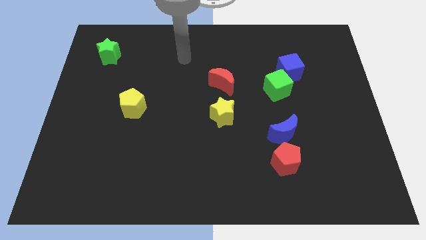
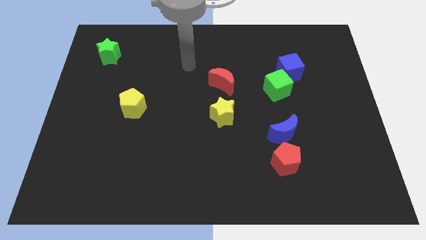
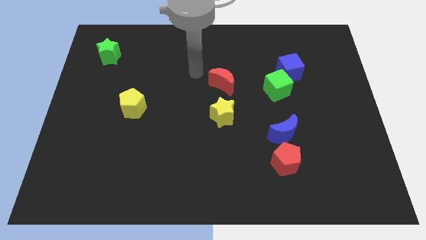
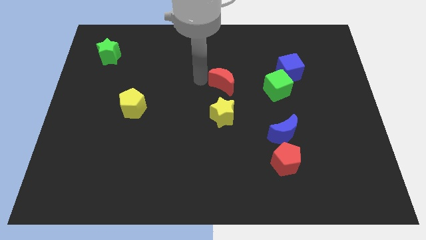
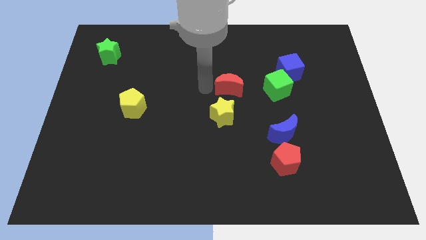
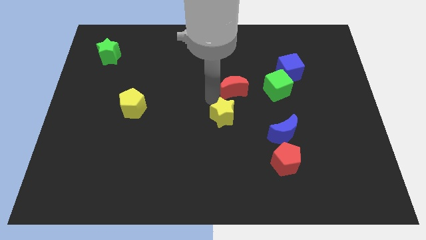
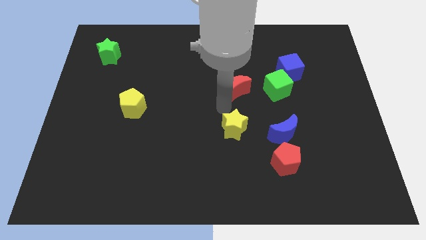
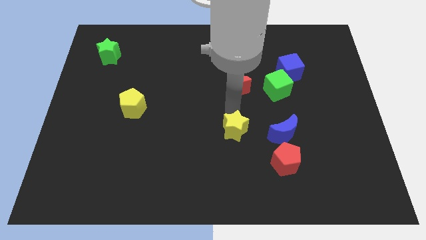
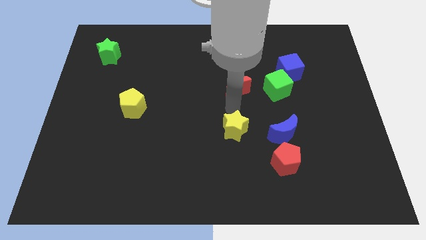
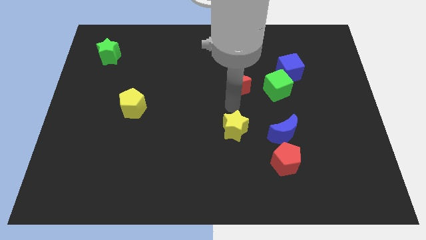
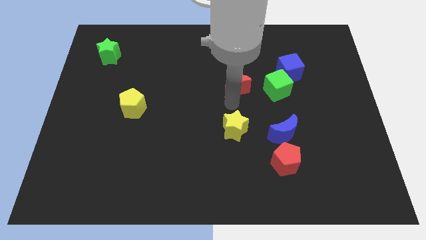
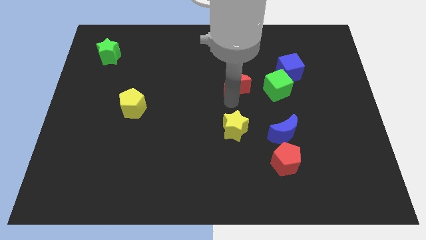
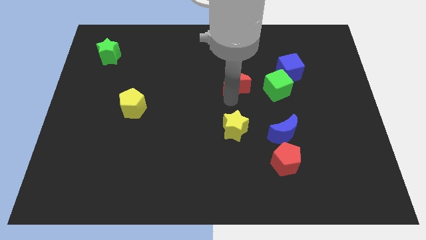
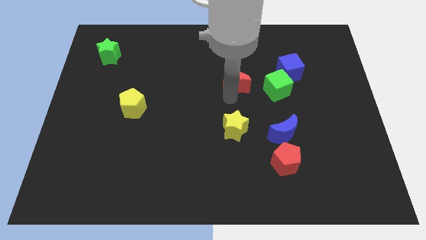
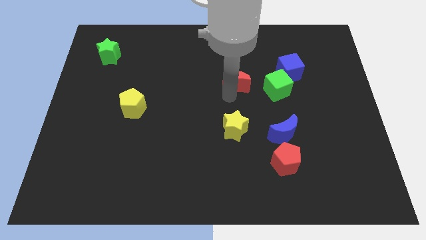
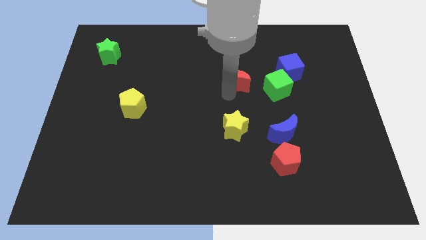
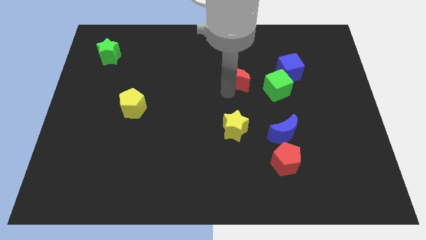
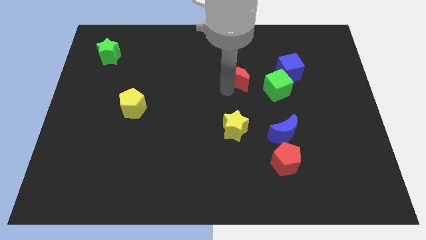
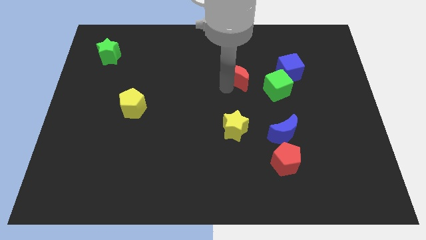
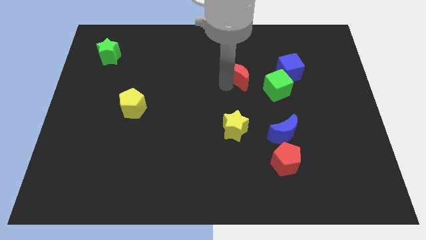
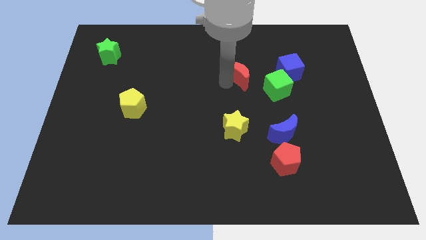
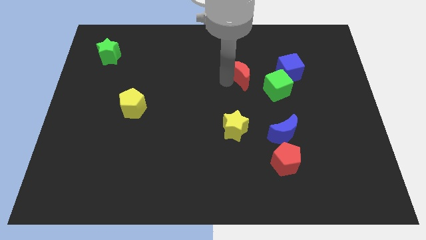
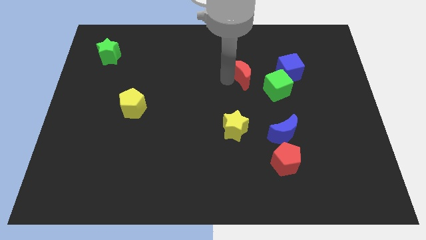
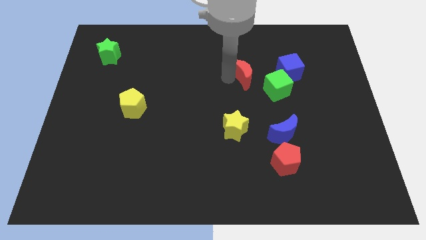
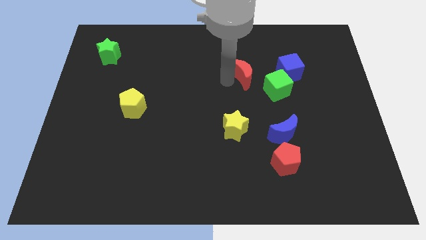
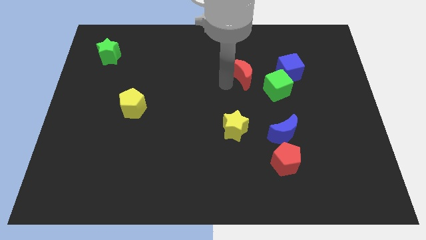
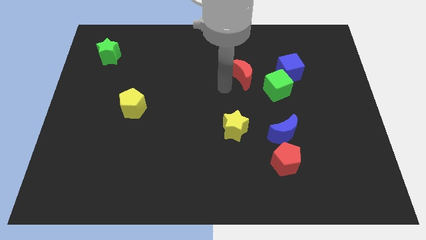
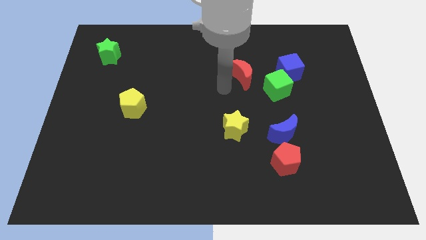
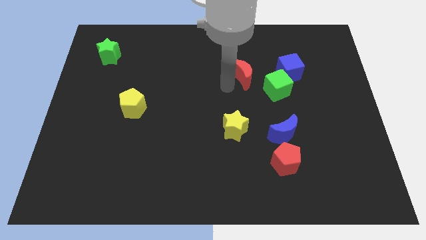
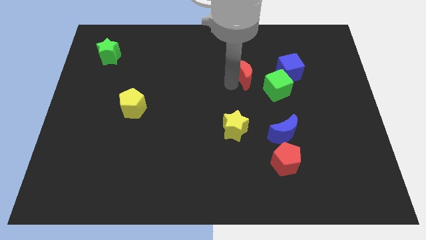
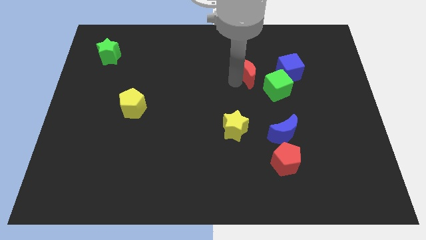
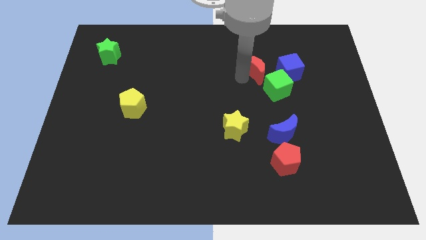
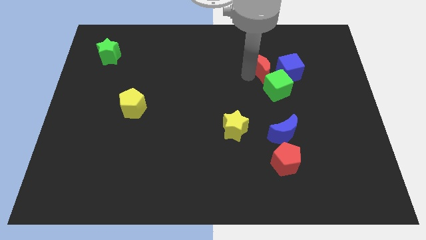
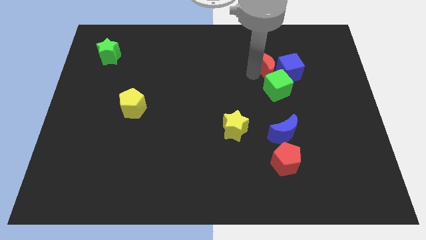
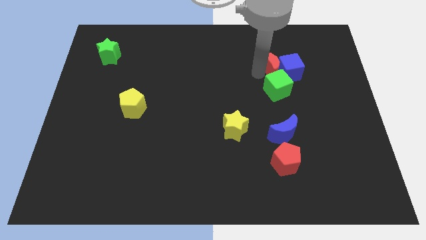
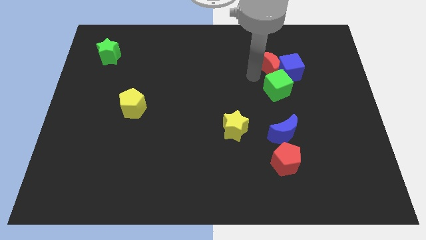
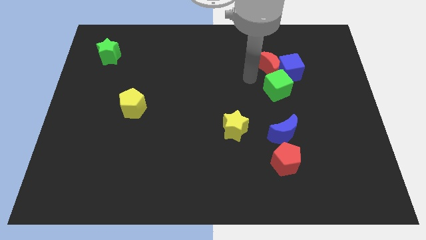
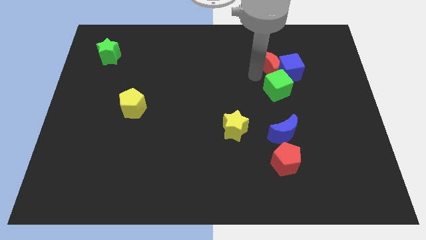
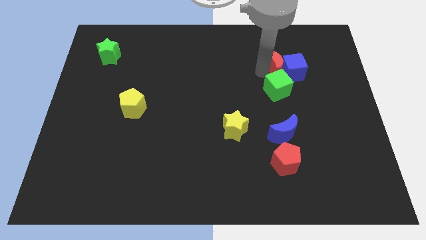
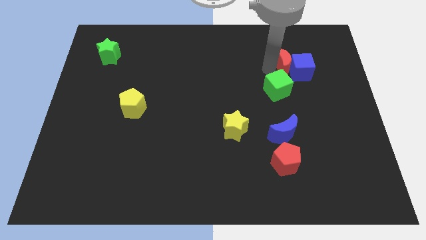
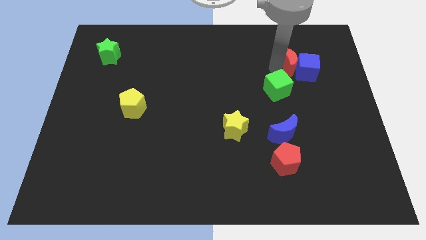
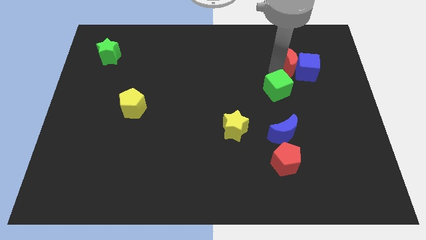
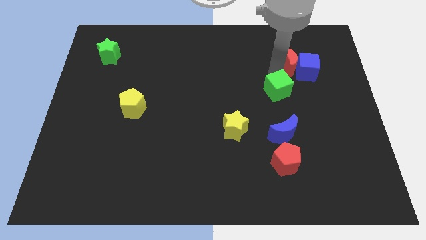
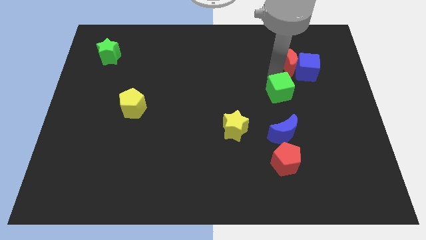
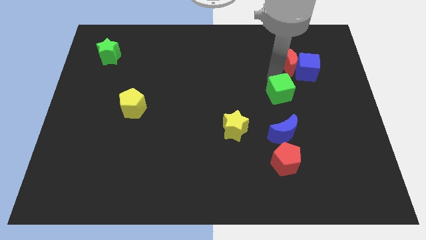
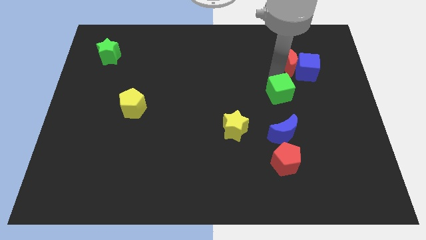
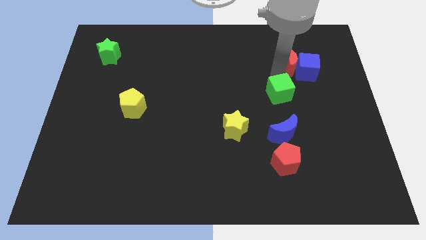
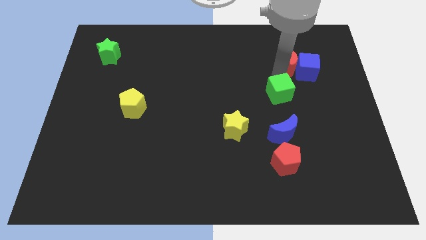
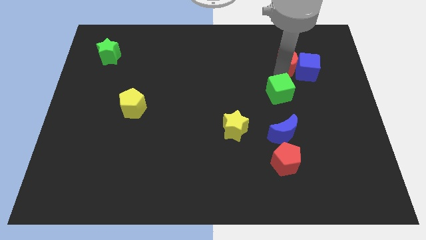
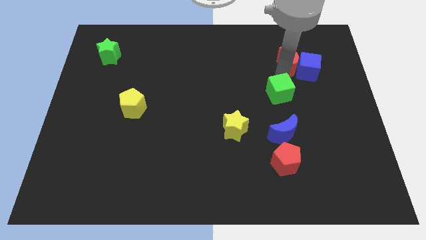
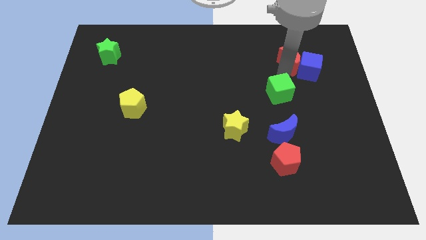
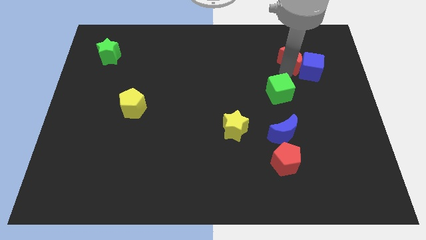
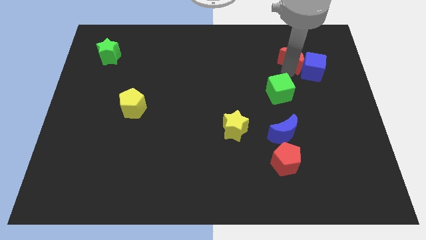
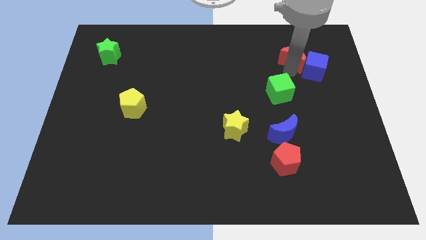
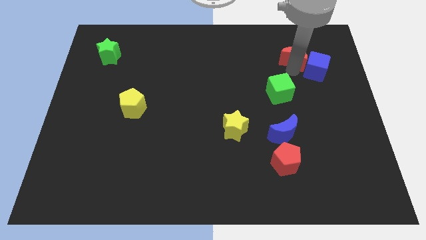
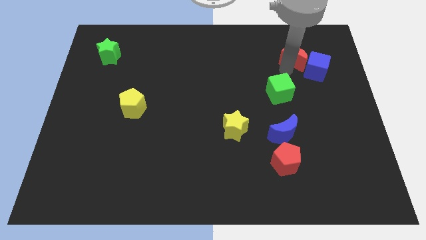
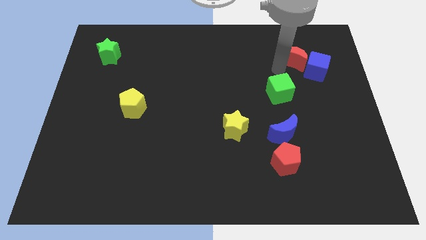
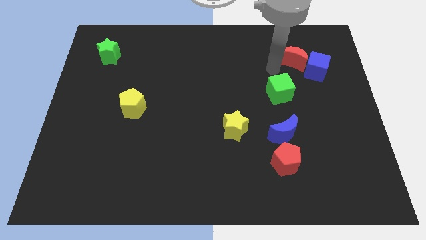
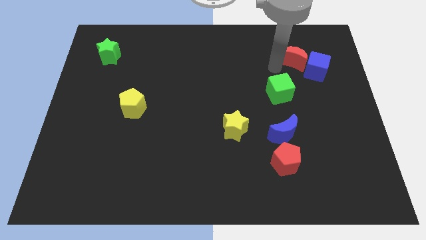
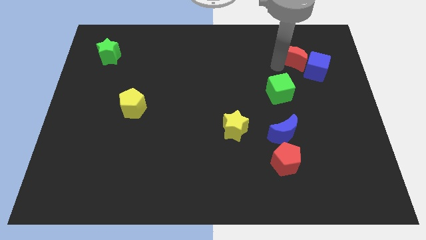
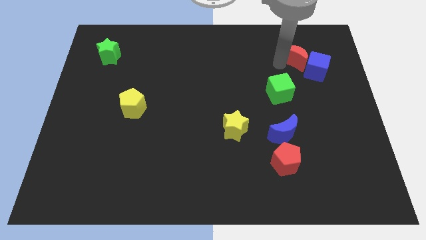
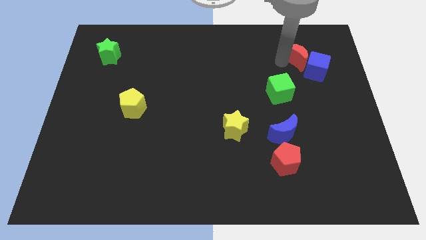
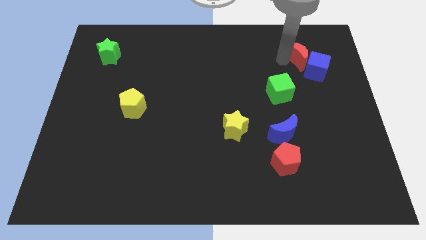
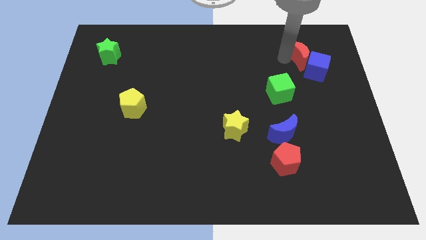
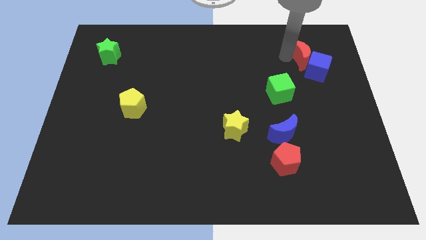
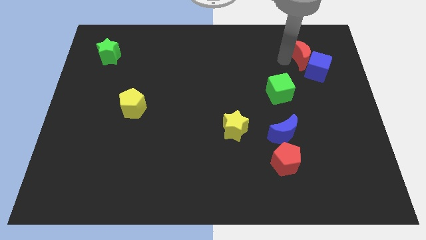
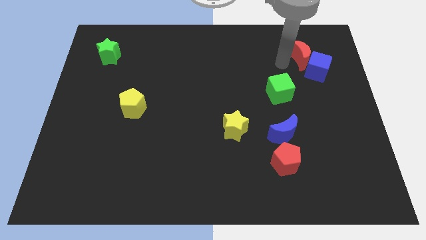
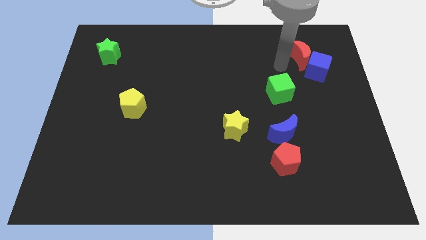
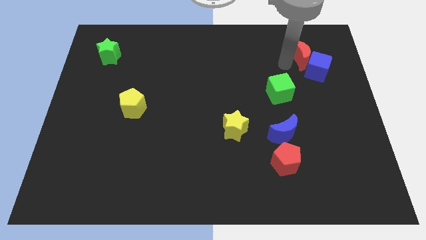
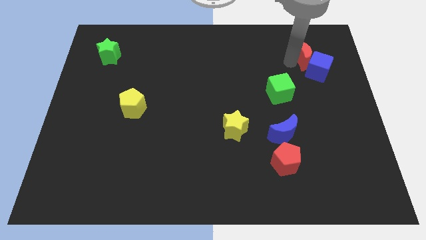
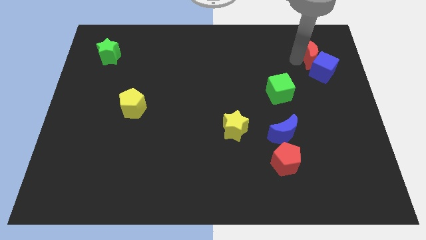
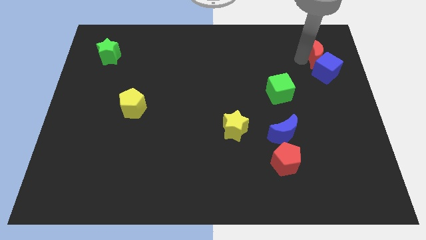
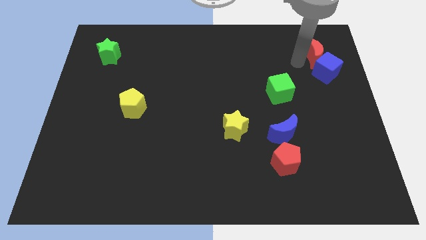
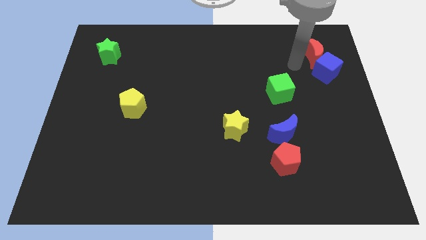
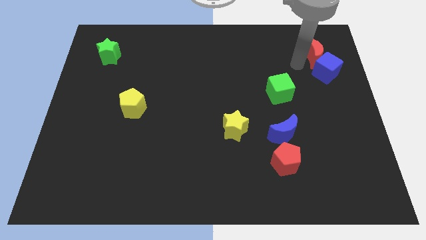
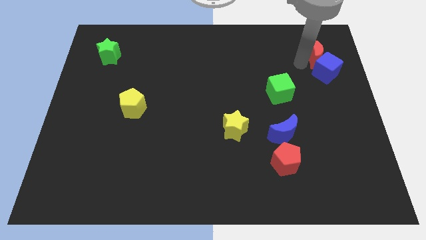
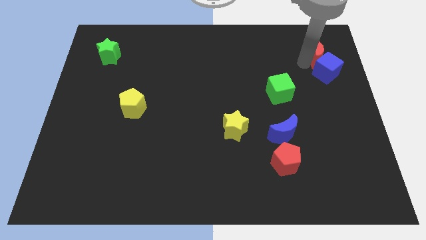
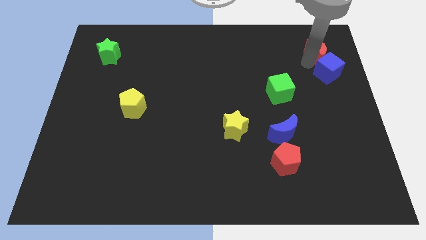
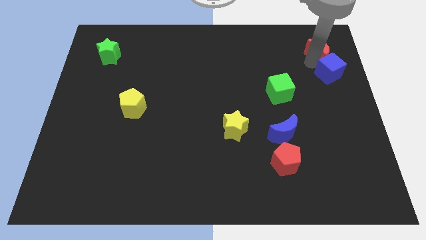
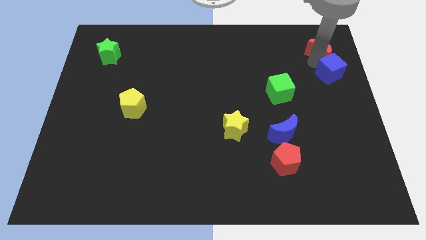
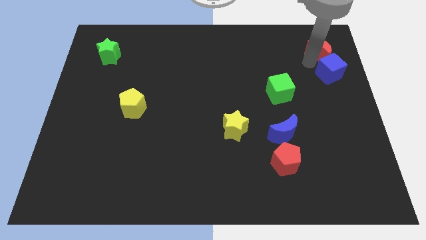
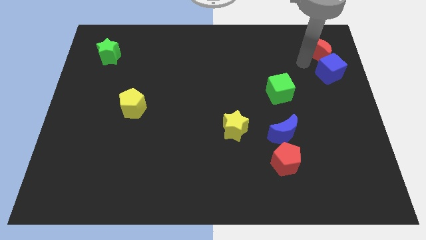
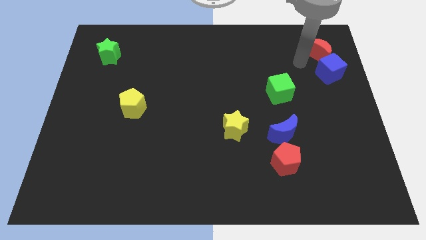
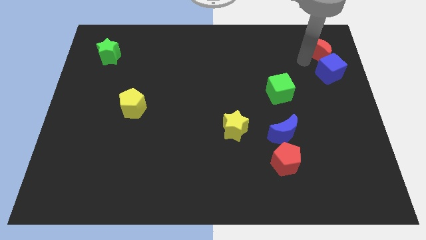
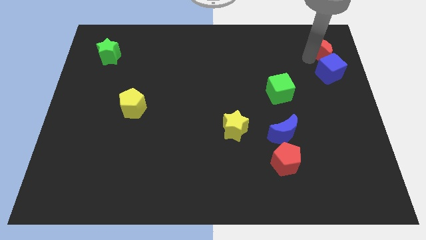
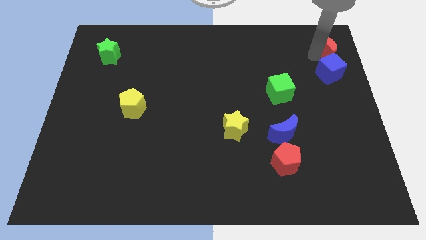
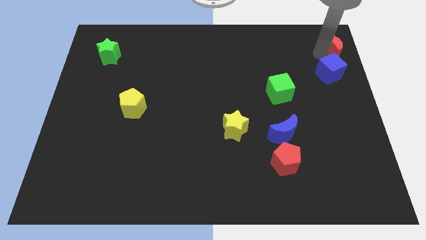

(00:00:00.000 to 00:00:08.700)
push the red moon to the upper right corner
